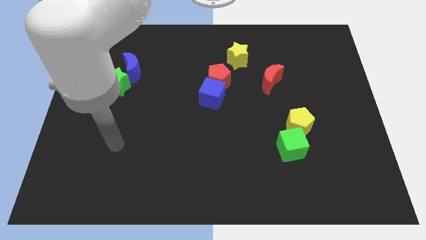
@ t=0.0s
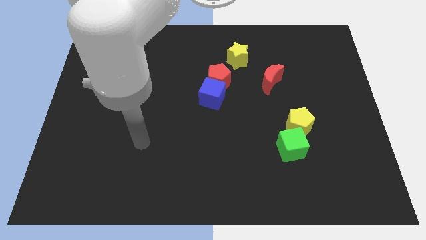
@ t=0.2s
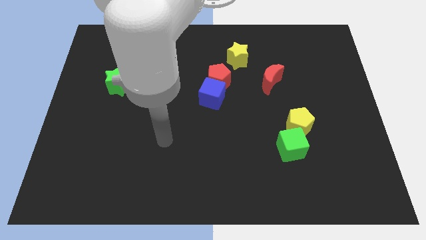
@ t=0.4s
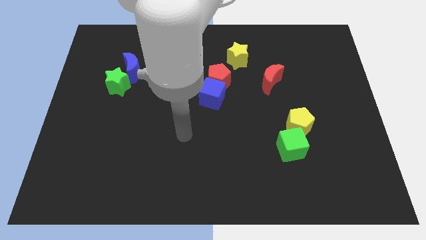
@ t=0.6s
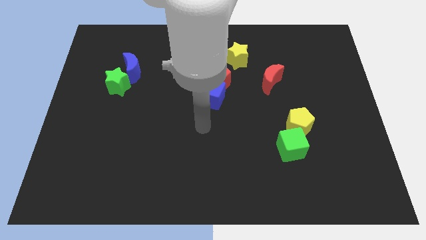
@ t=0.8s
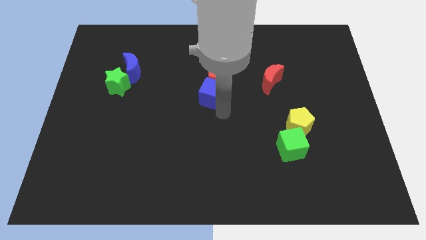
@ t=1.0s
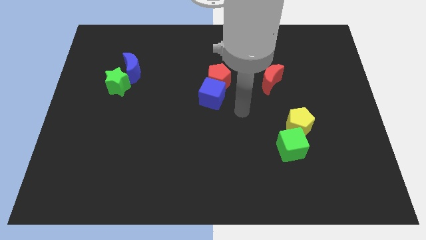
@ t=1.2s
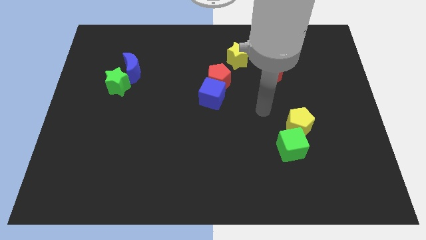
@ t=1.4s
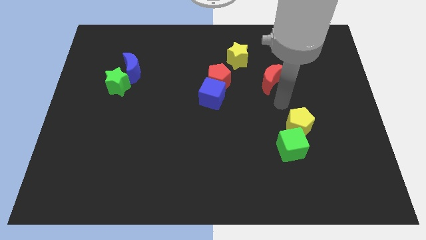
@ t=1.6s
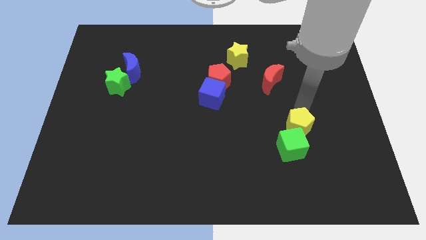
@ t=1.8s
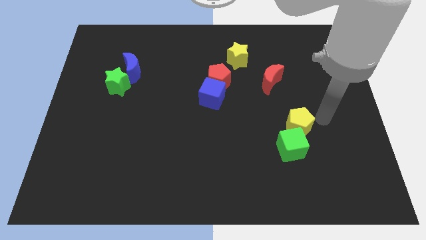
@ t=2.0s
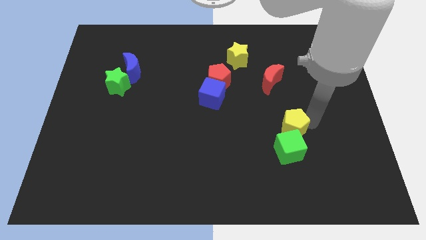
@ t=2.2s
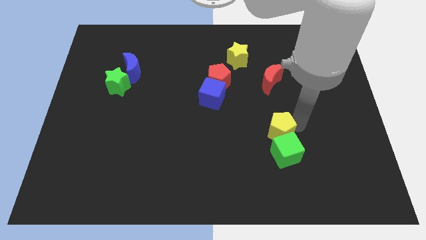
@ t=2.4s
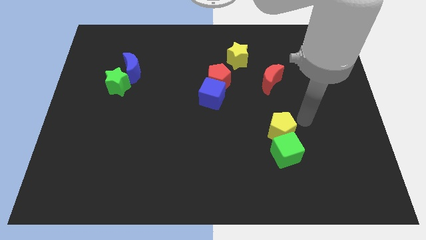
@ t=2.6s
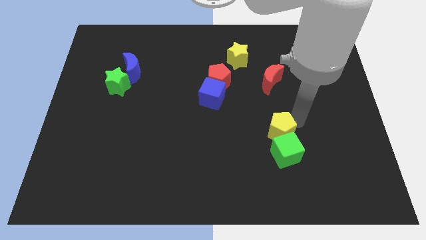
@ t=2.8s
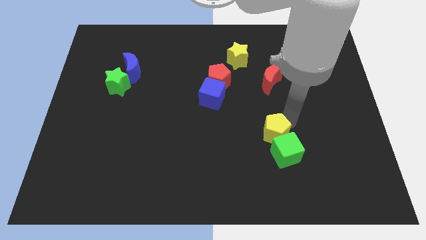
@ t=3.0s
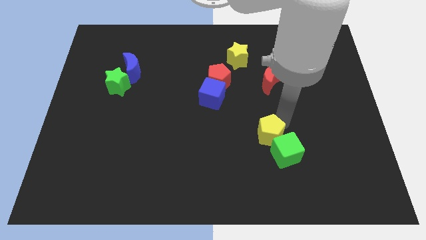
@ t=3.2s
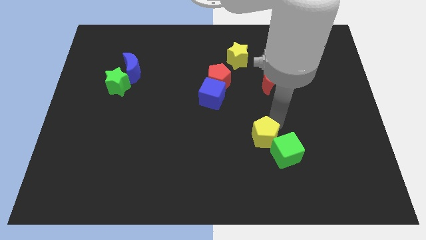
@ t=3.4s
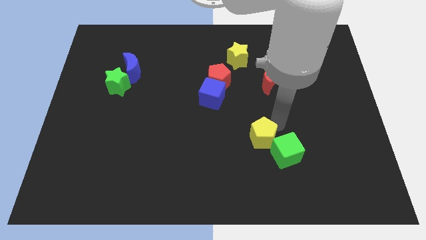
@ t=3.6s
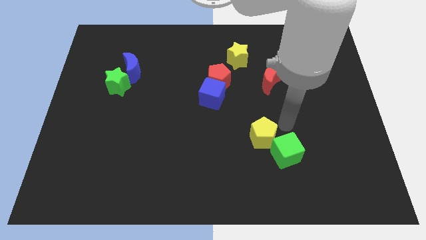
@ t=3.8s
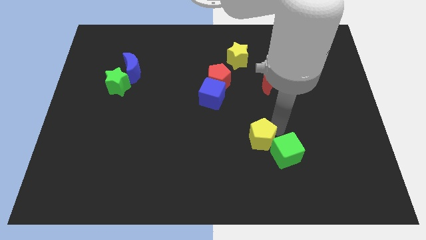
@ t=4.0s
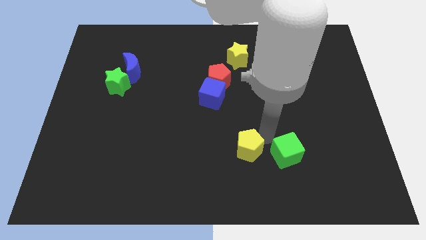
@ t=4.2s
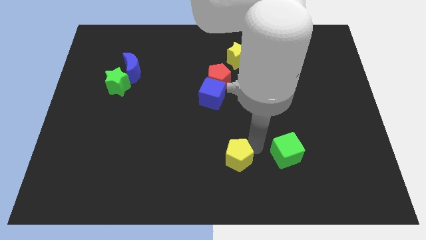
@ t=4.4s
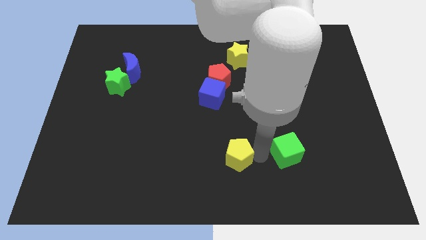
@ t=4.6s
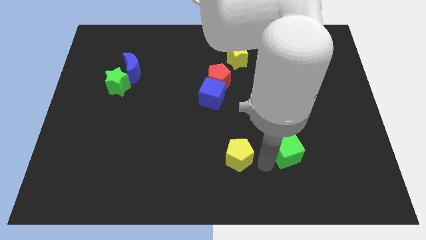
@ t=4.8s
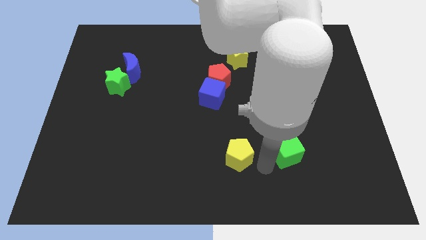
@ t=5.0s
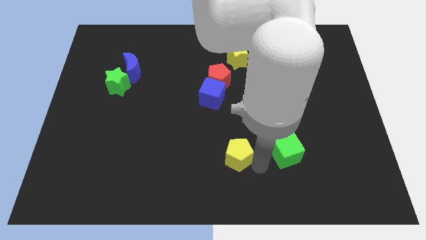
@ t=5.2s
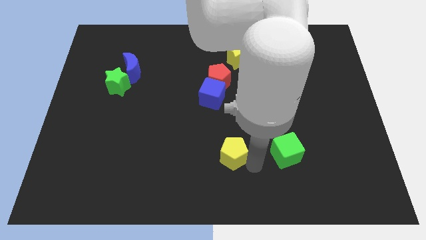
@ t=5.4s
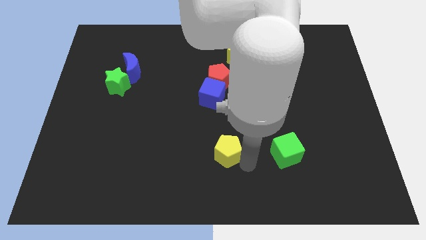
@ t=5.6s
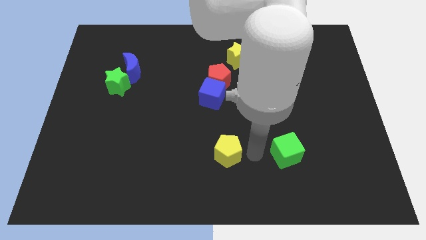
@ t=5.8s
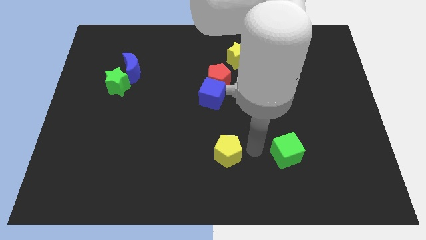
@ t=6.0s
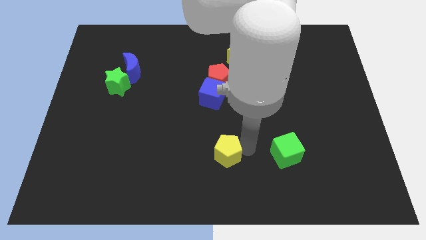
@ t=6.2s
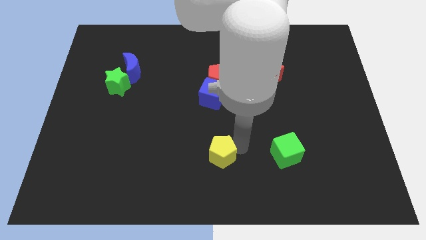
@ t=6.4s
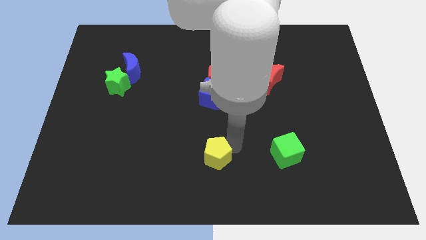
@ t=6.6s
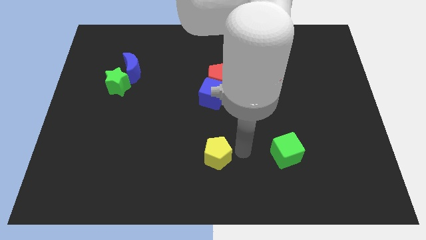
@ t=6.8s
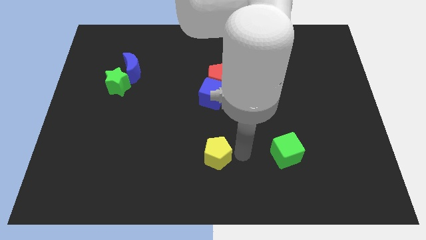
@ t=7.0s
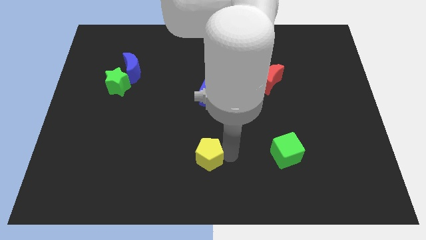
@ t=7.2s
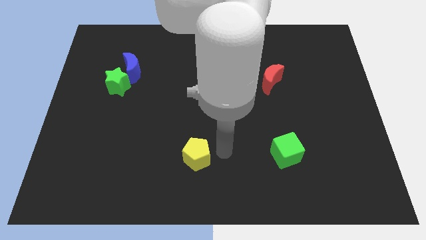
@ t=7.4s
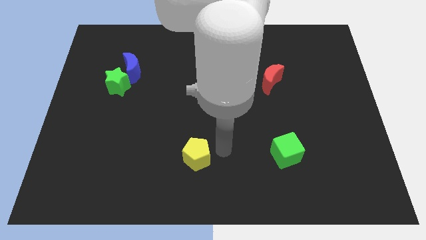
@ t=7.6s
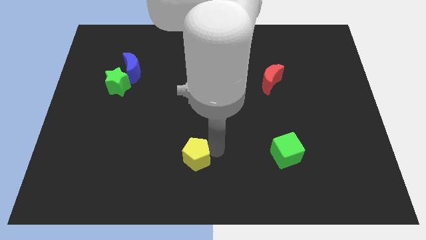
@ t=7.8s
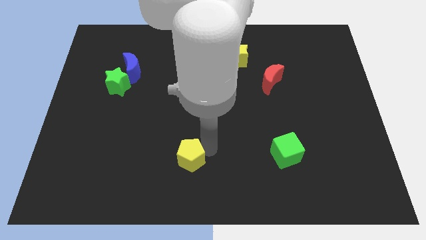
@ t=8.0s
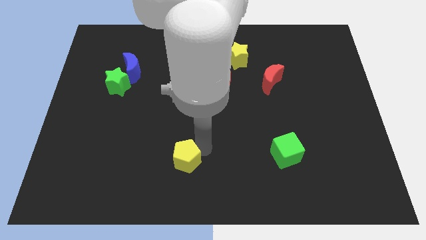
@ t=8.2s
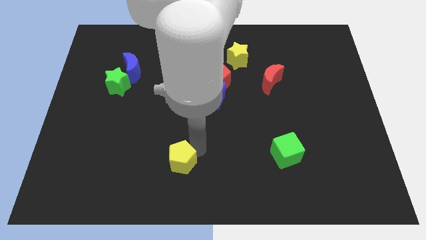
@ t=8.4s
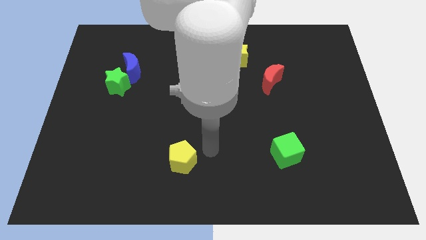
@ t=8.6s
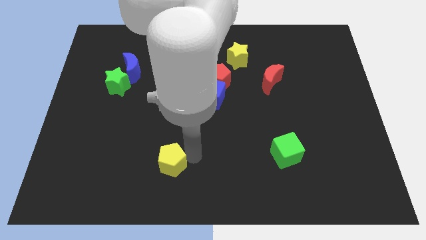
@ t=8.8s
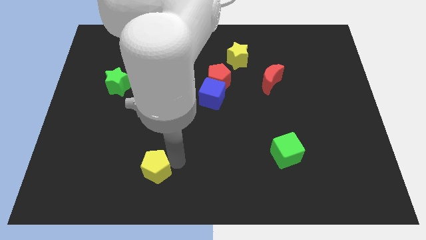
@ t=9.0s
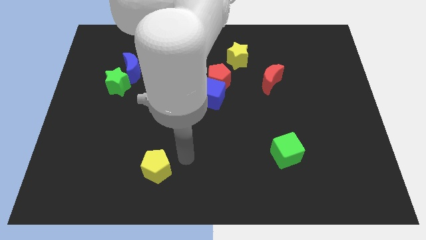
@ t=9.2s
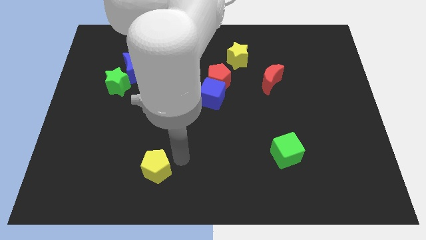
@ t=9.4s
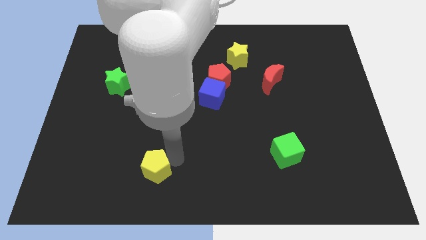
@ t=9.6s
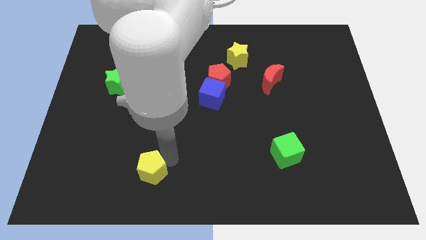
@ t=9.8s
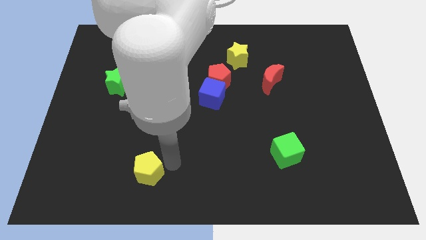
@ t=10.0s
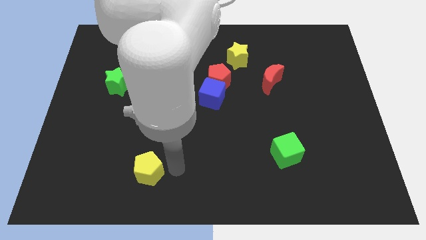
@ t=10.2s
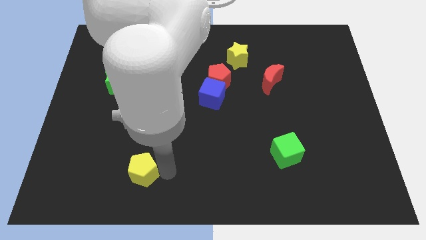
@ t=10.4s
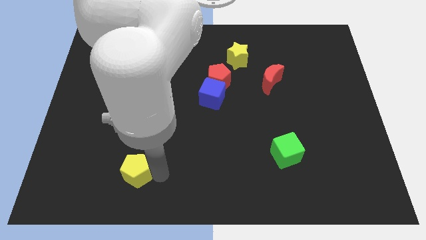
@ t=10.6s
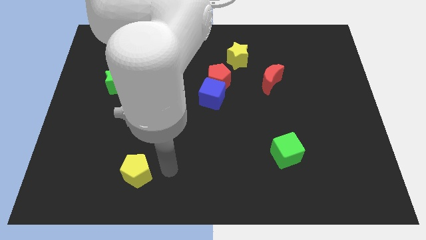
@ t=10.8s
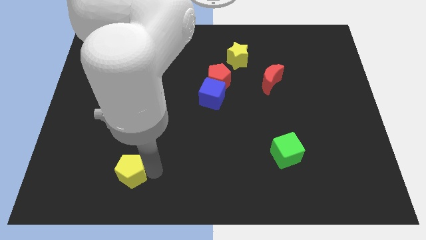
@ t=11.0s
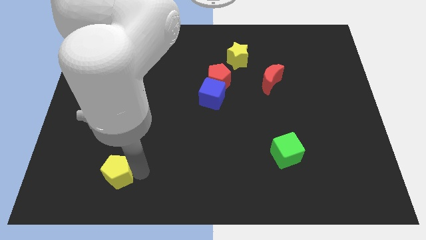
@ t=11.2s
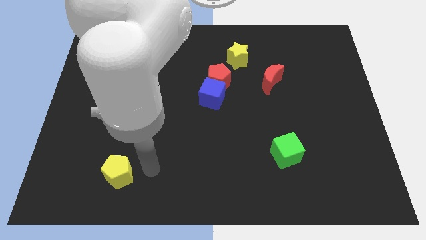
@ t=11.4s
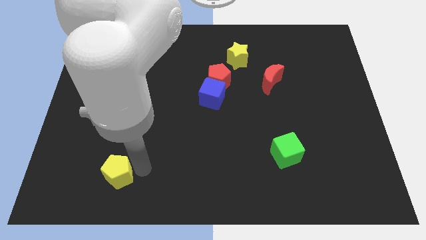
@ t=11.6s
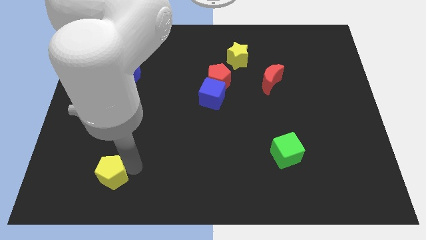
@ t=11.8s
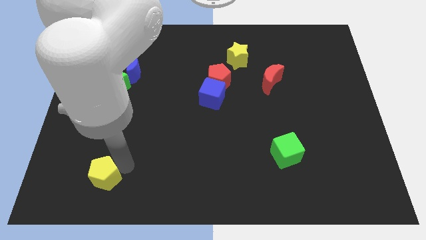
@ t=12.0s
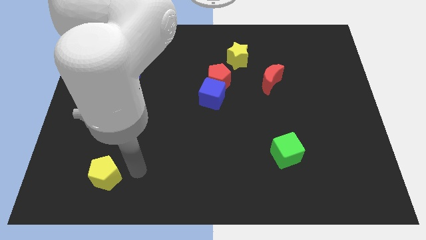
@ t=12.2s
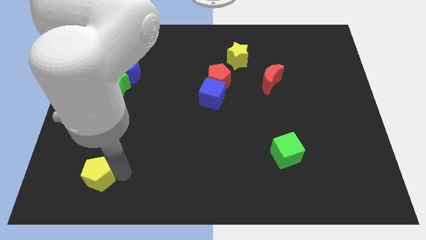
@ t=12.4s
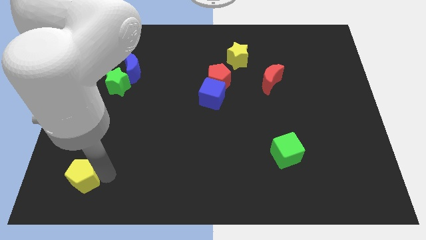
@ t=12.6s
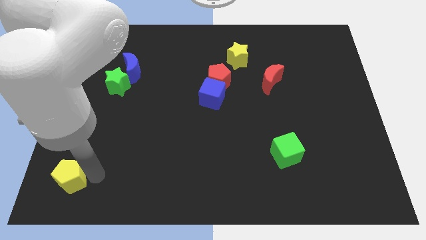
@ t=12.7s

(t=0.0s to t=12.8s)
put the yellow pentagon to the bottom left

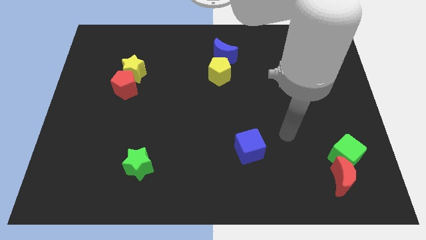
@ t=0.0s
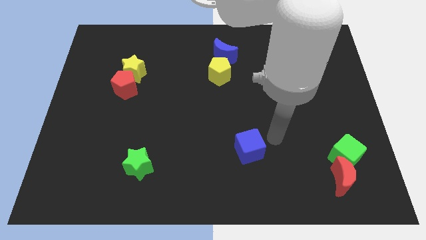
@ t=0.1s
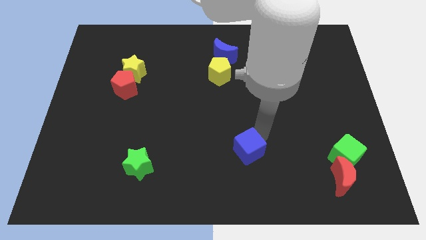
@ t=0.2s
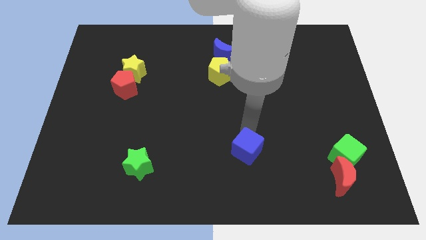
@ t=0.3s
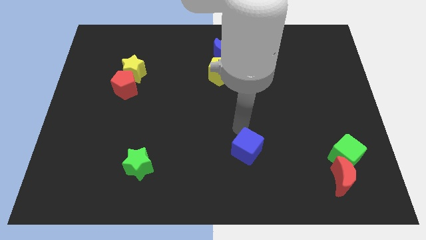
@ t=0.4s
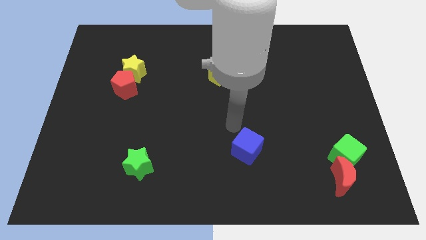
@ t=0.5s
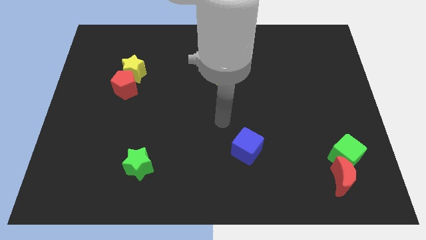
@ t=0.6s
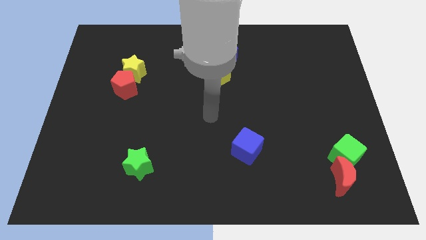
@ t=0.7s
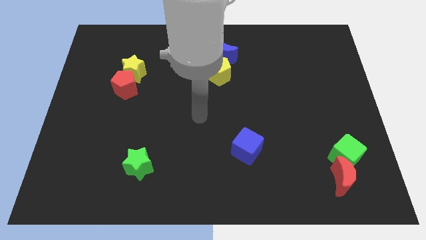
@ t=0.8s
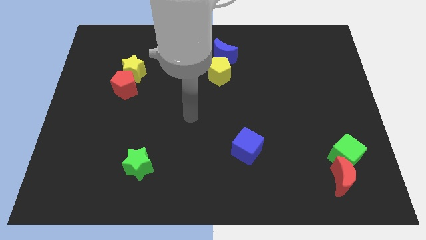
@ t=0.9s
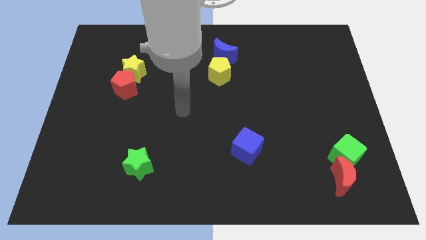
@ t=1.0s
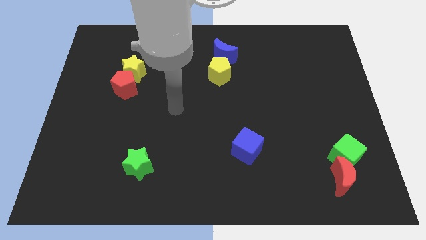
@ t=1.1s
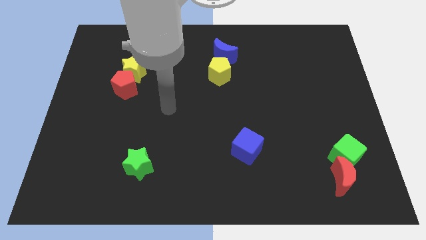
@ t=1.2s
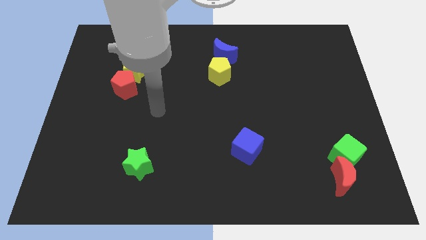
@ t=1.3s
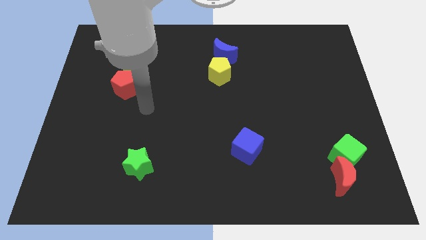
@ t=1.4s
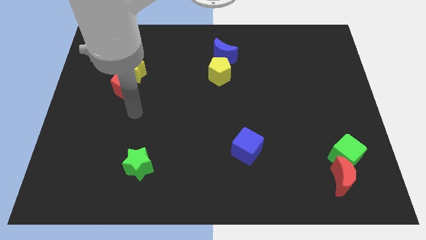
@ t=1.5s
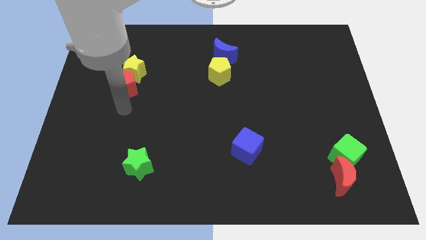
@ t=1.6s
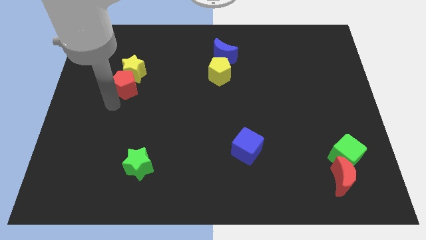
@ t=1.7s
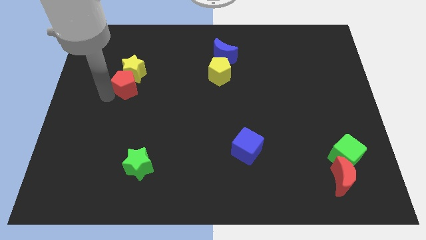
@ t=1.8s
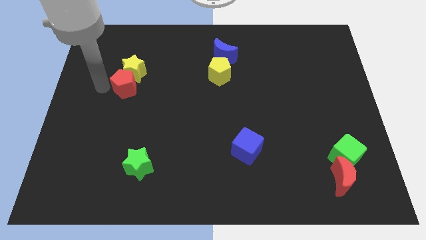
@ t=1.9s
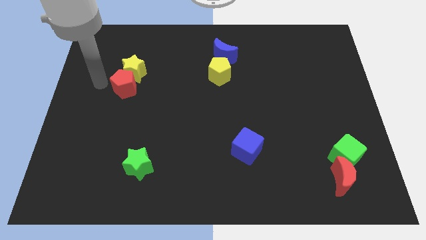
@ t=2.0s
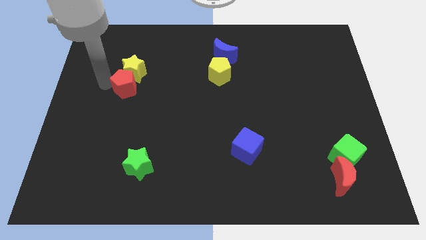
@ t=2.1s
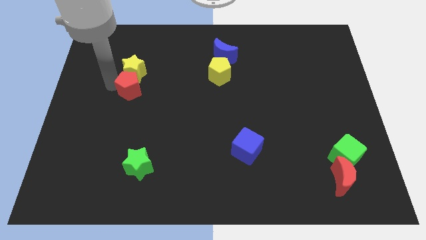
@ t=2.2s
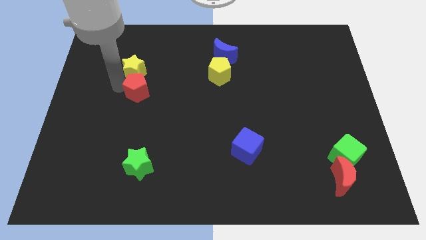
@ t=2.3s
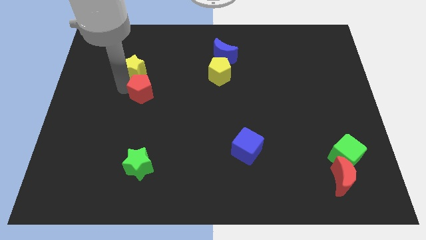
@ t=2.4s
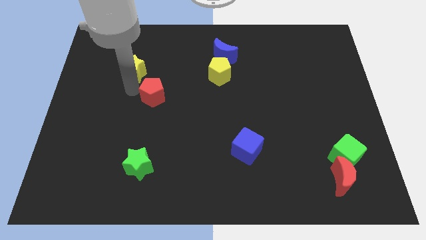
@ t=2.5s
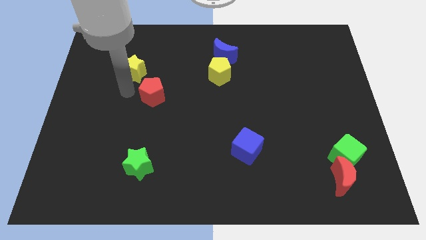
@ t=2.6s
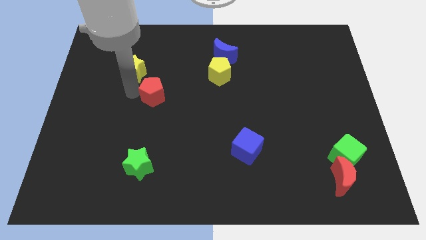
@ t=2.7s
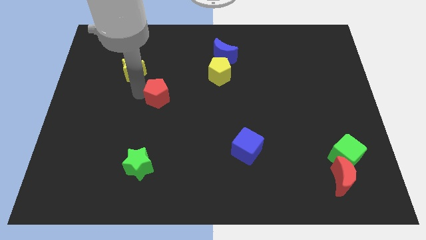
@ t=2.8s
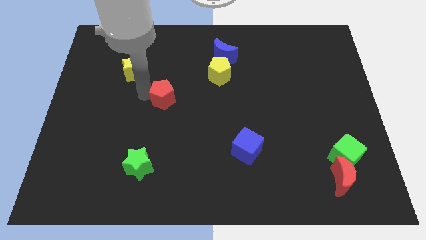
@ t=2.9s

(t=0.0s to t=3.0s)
push the red pentagon to the center of the board
